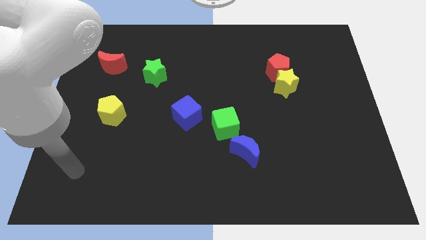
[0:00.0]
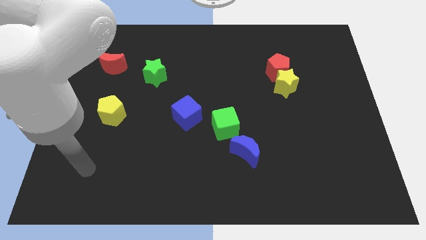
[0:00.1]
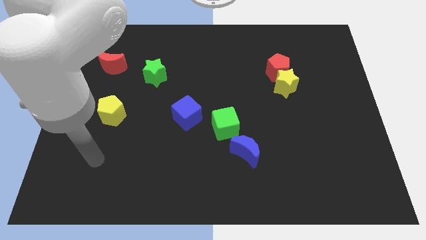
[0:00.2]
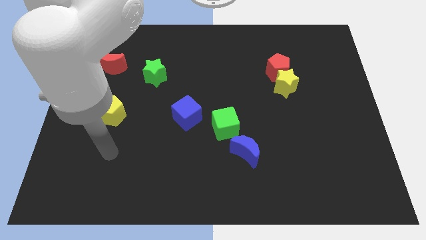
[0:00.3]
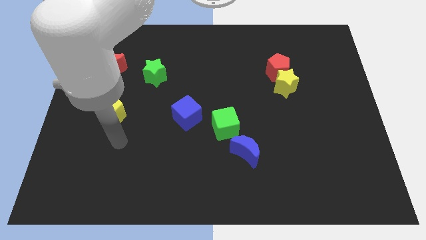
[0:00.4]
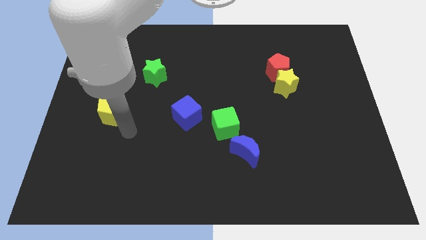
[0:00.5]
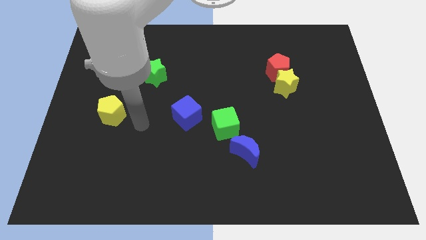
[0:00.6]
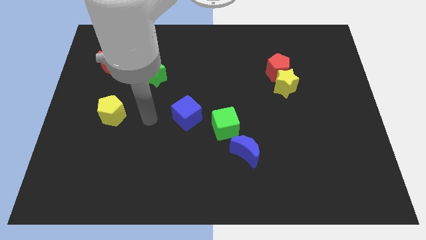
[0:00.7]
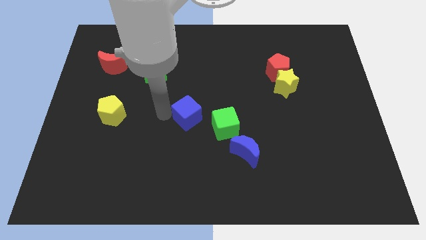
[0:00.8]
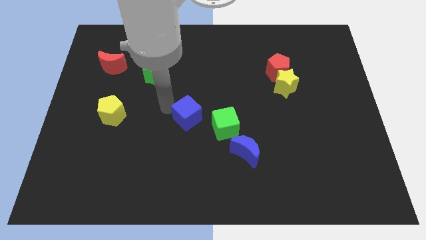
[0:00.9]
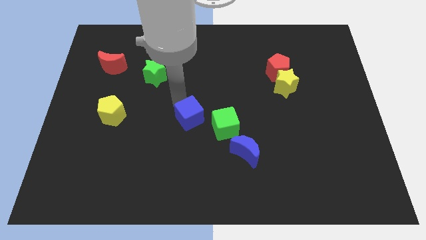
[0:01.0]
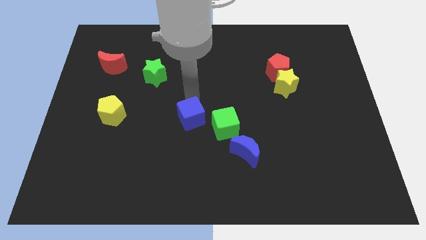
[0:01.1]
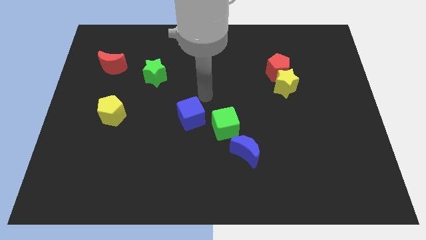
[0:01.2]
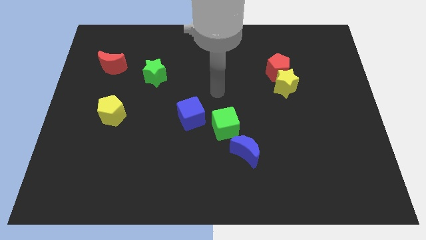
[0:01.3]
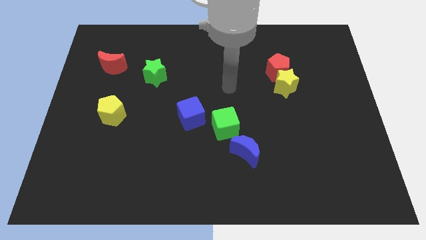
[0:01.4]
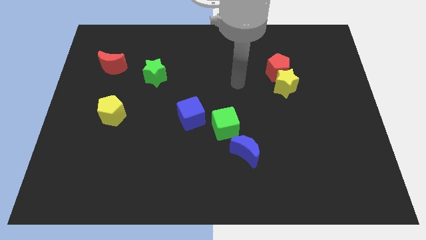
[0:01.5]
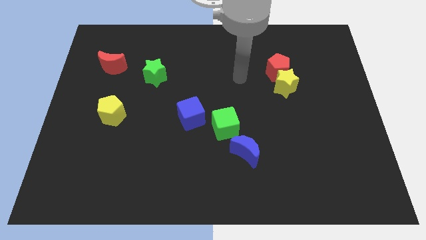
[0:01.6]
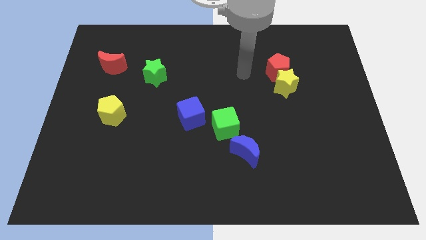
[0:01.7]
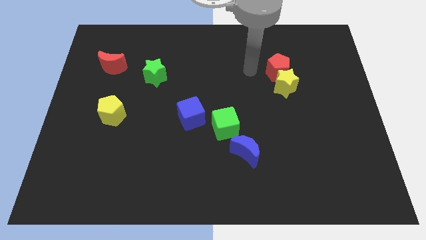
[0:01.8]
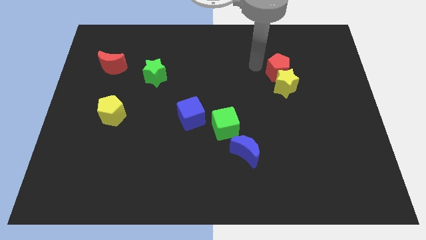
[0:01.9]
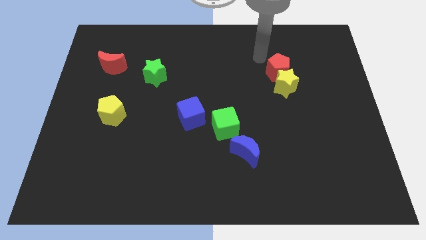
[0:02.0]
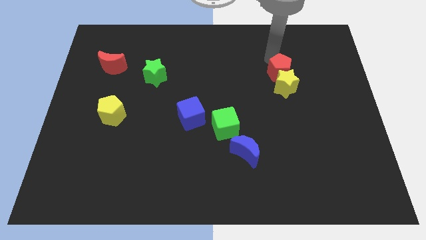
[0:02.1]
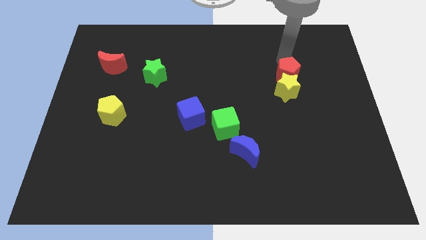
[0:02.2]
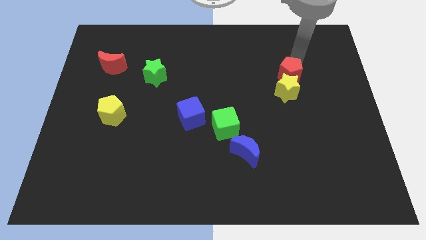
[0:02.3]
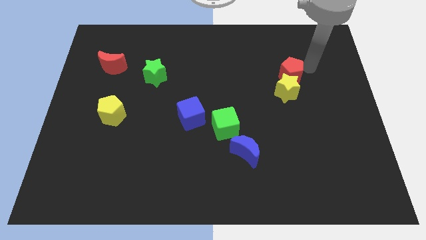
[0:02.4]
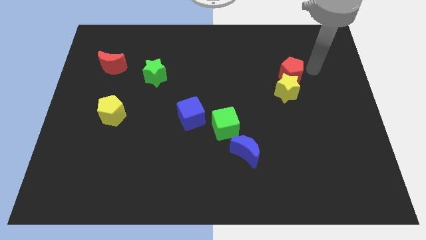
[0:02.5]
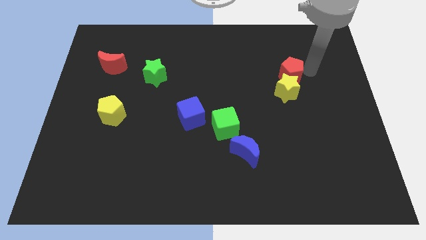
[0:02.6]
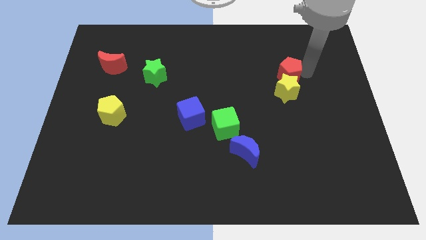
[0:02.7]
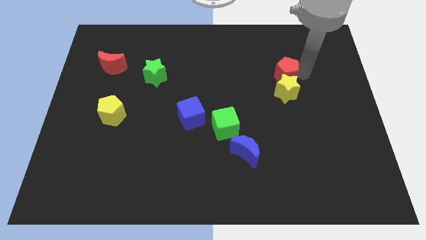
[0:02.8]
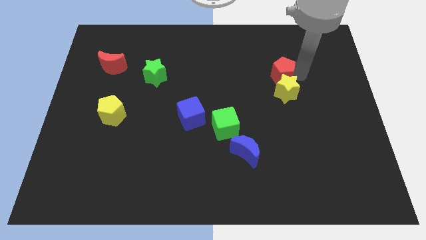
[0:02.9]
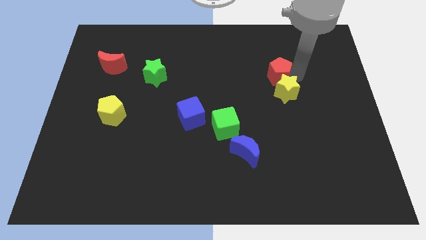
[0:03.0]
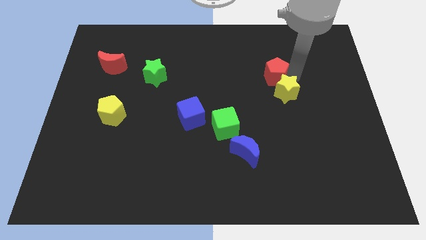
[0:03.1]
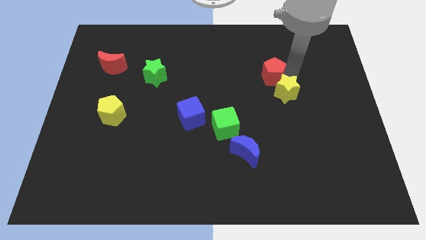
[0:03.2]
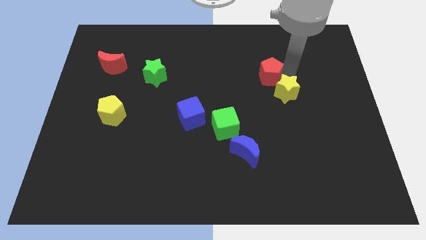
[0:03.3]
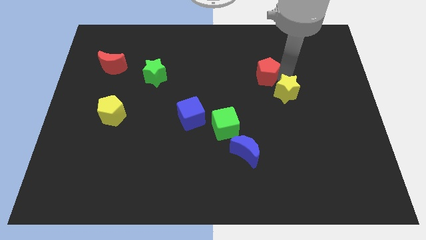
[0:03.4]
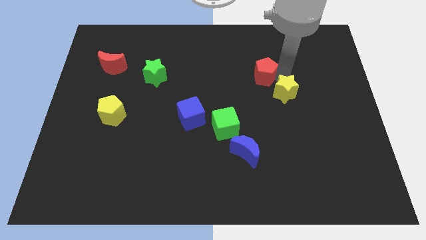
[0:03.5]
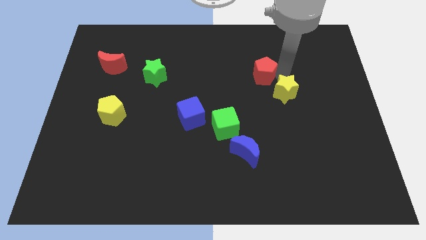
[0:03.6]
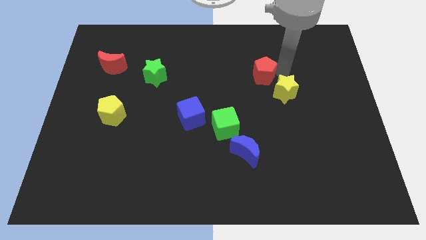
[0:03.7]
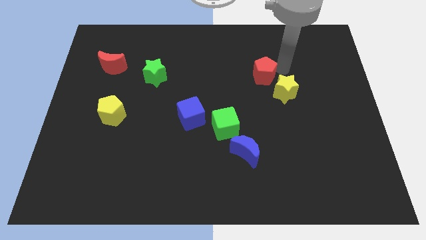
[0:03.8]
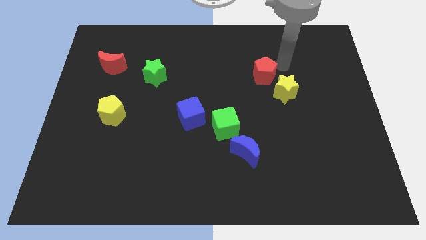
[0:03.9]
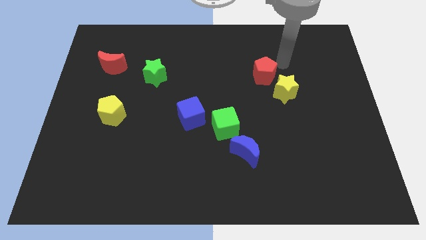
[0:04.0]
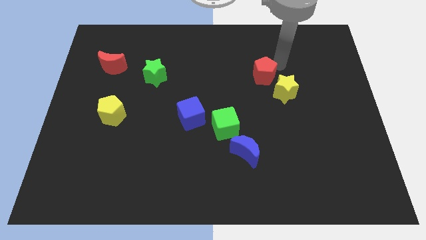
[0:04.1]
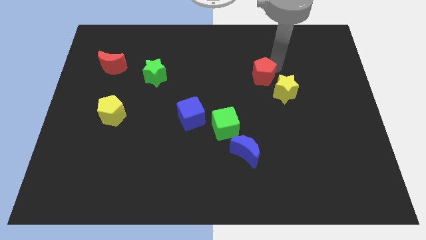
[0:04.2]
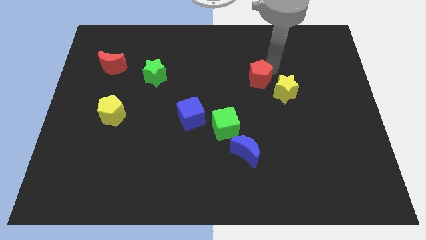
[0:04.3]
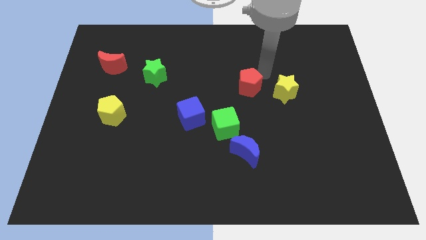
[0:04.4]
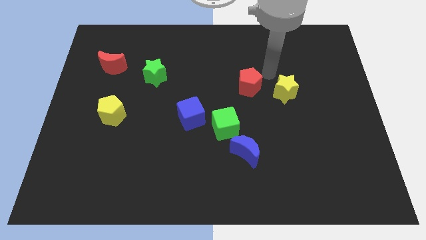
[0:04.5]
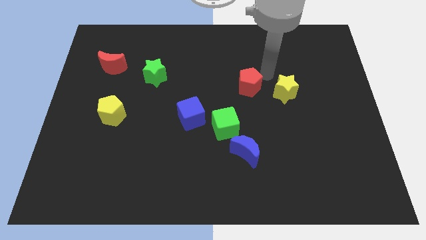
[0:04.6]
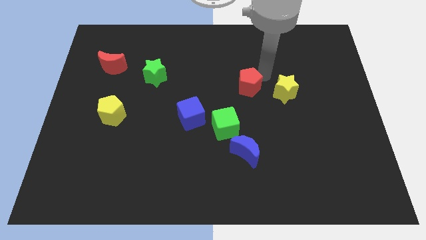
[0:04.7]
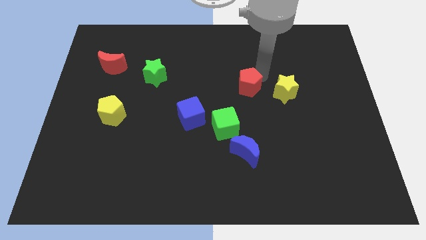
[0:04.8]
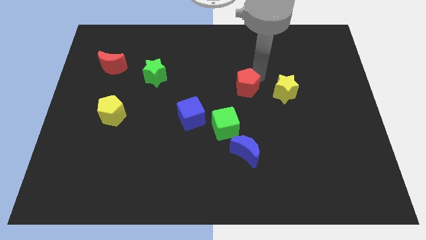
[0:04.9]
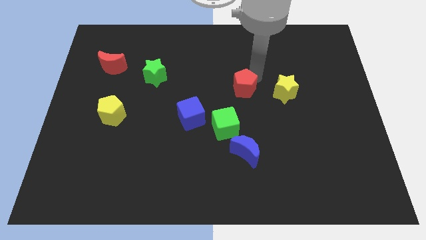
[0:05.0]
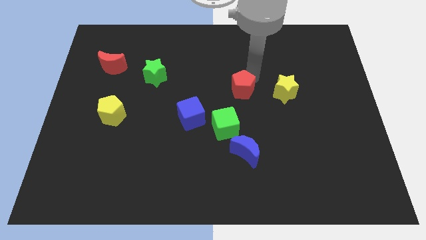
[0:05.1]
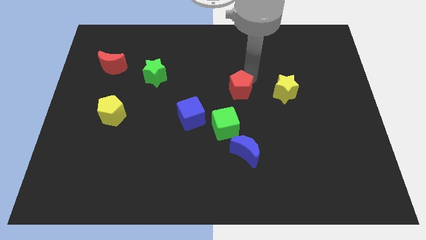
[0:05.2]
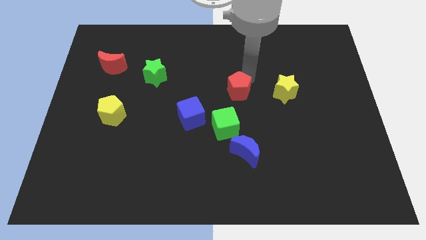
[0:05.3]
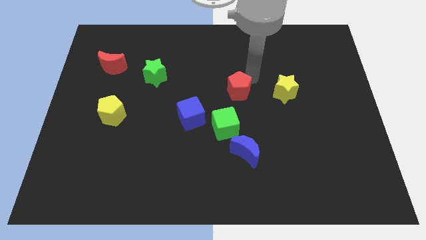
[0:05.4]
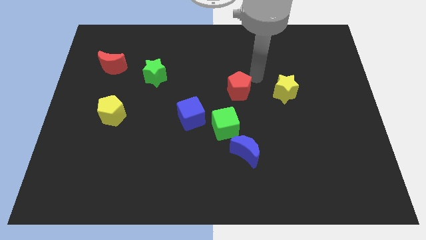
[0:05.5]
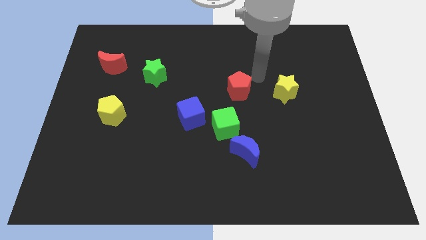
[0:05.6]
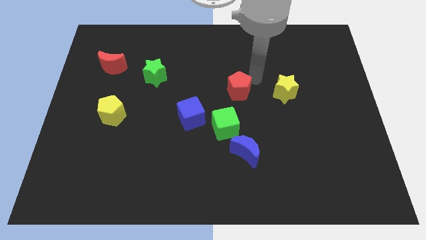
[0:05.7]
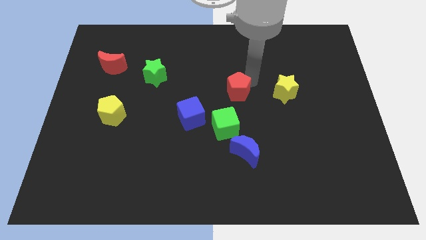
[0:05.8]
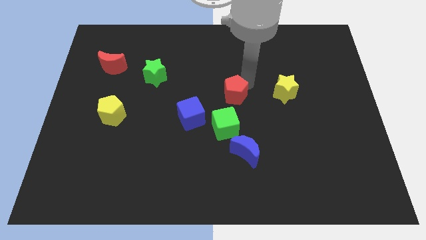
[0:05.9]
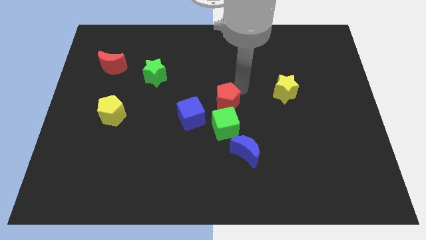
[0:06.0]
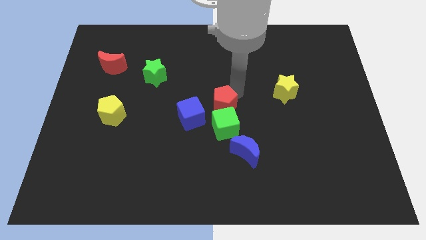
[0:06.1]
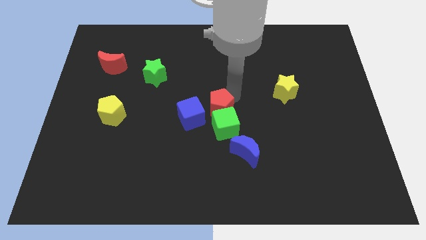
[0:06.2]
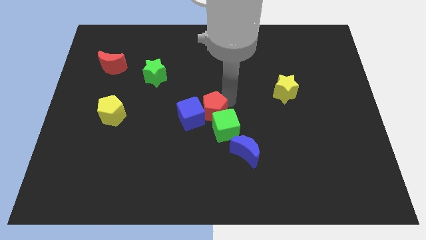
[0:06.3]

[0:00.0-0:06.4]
move the red pentagon to the blue cube

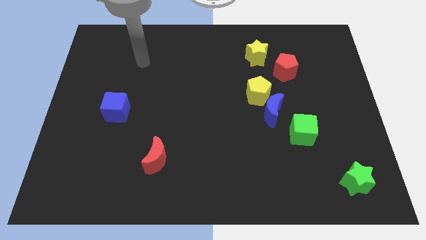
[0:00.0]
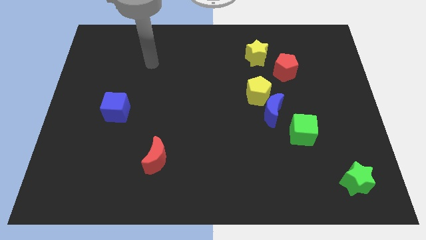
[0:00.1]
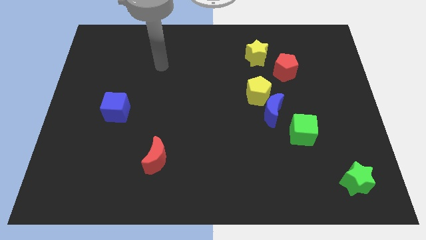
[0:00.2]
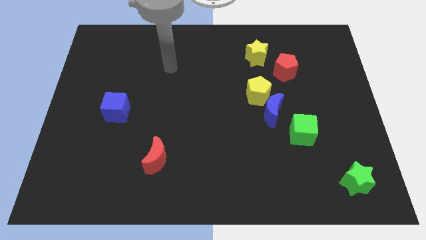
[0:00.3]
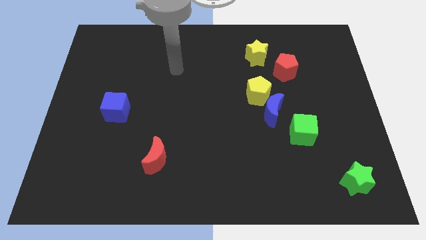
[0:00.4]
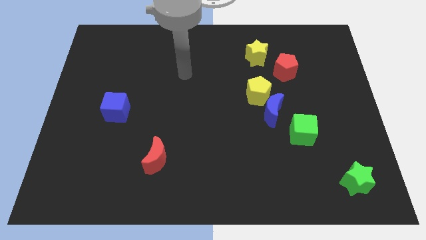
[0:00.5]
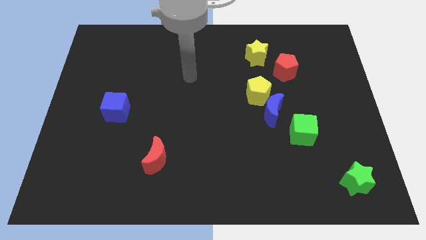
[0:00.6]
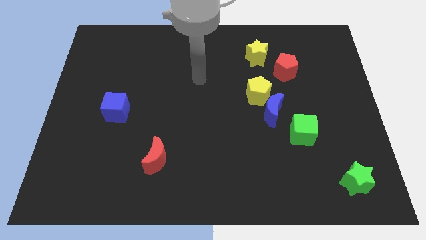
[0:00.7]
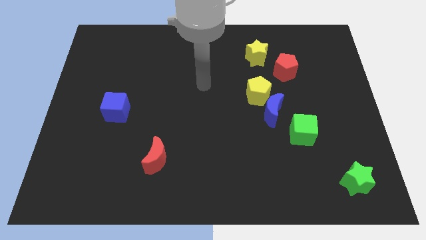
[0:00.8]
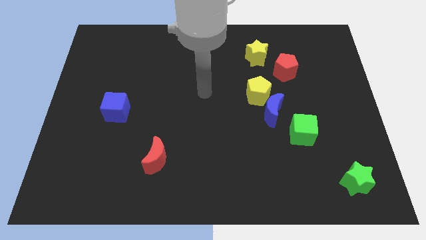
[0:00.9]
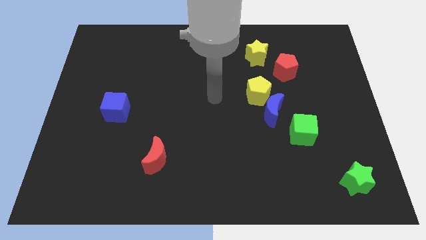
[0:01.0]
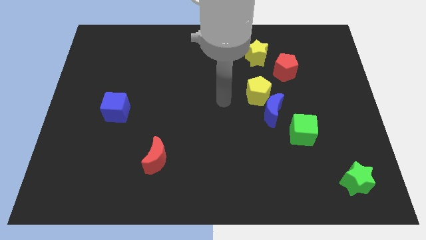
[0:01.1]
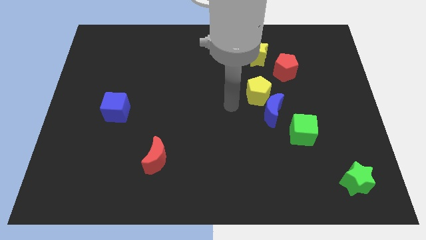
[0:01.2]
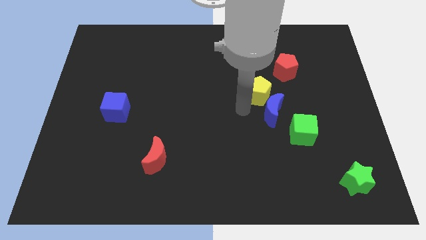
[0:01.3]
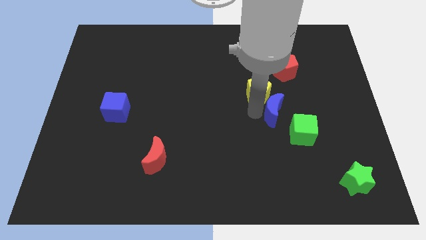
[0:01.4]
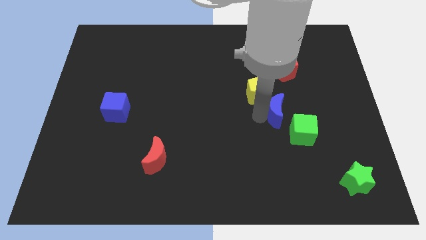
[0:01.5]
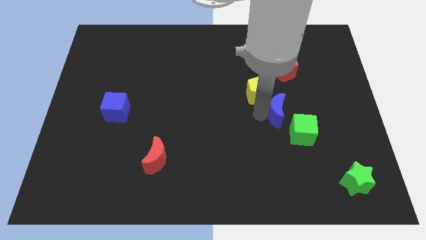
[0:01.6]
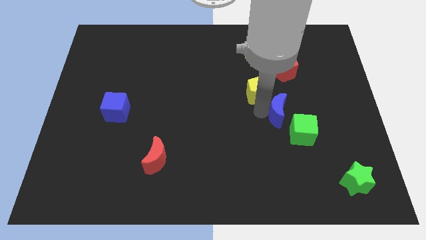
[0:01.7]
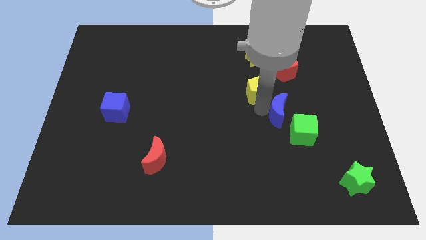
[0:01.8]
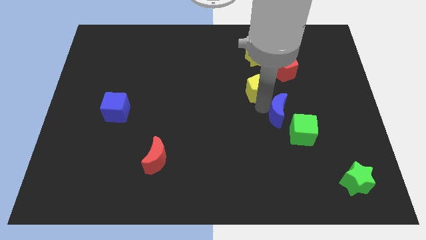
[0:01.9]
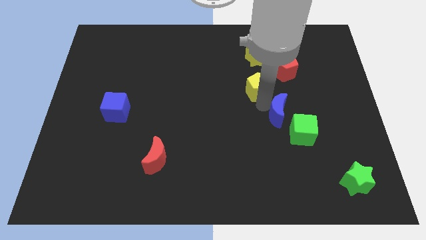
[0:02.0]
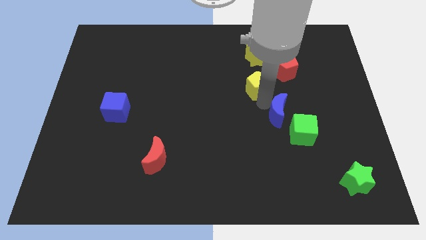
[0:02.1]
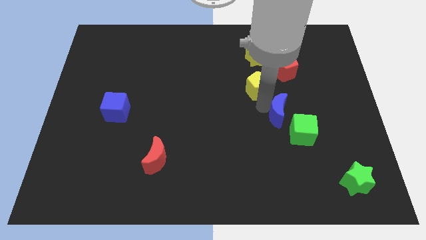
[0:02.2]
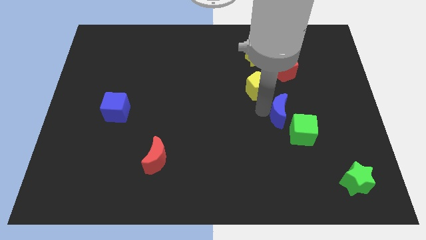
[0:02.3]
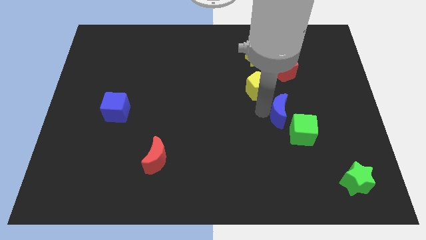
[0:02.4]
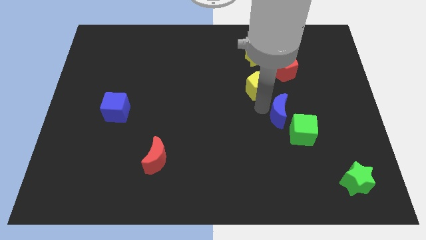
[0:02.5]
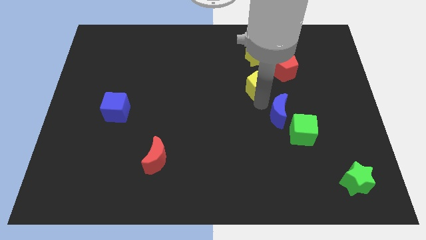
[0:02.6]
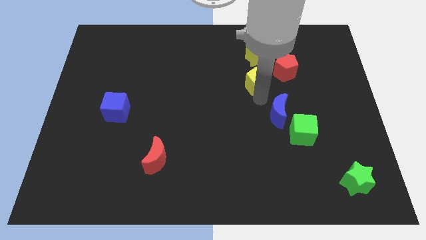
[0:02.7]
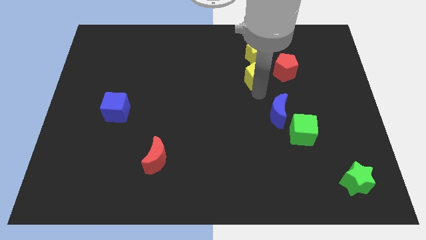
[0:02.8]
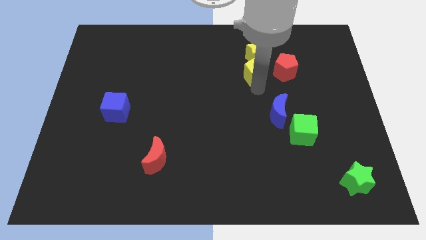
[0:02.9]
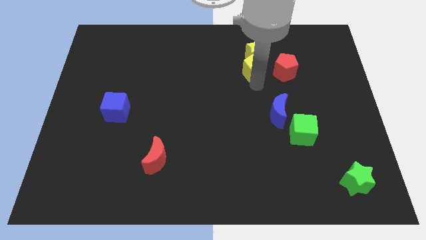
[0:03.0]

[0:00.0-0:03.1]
put the yellow pentagon towards the yellow star
